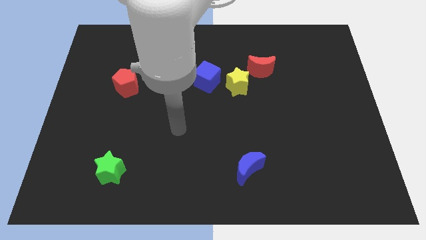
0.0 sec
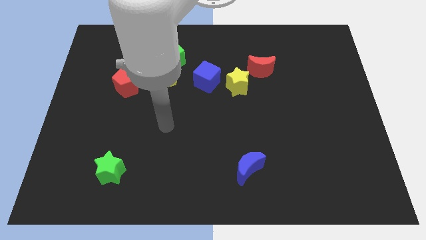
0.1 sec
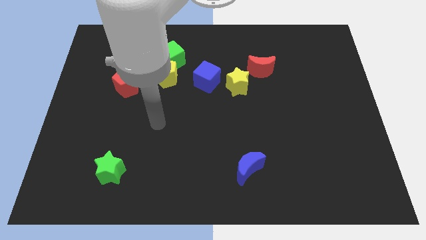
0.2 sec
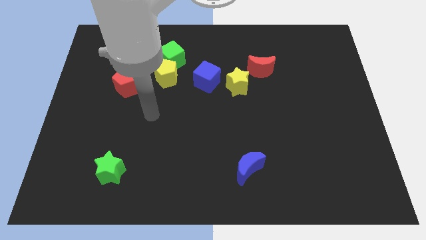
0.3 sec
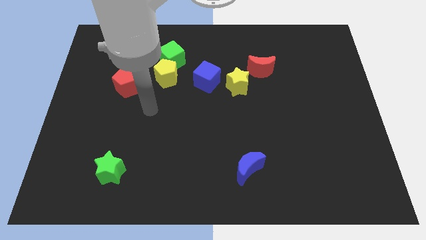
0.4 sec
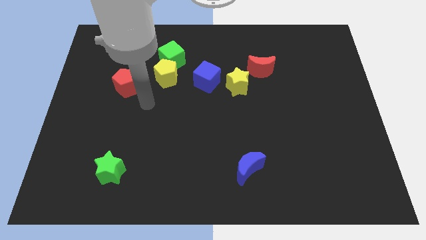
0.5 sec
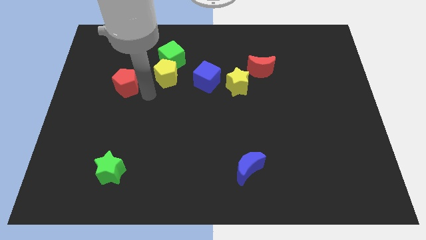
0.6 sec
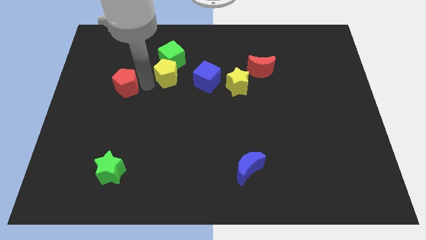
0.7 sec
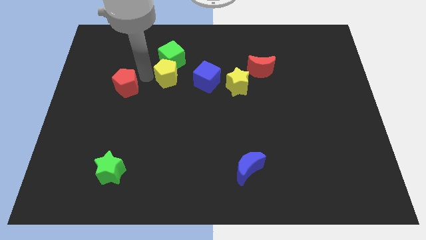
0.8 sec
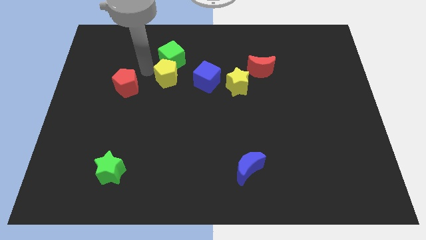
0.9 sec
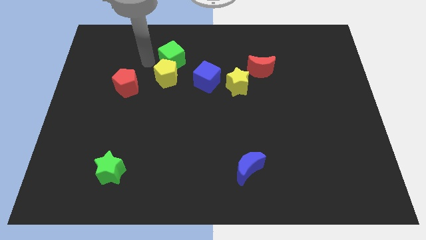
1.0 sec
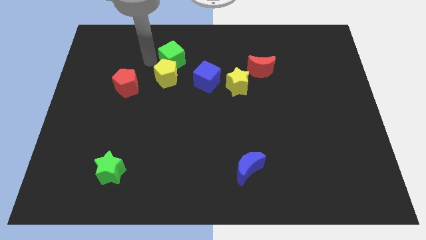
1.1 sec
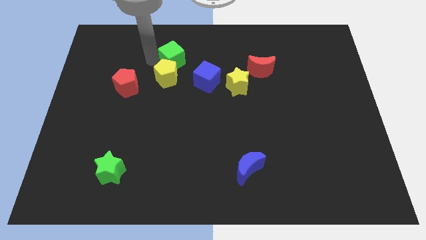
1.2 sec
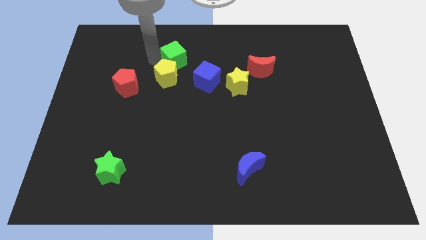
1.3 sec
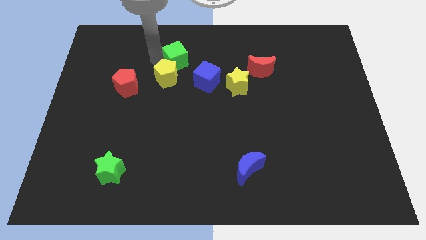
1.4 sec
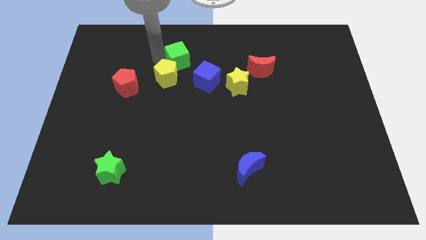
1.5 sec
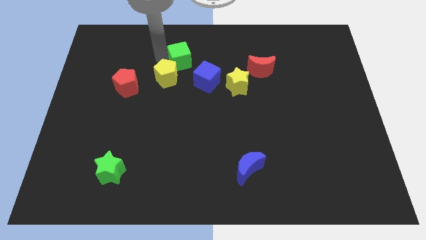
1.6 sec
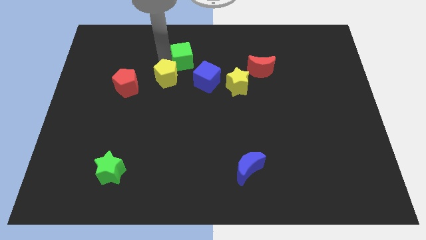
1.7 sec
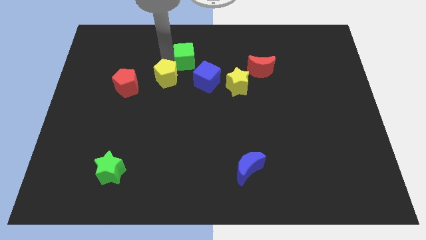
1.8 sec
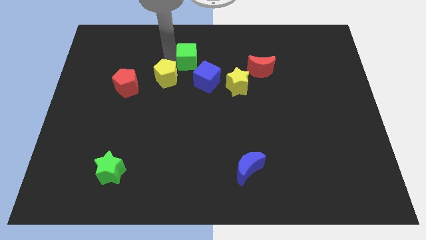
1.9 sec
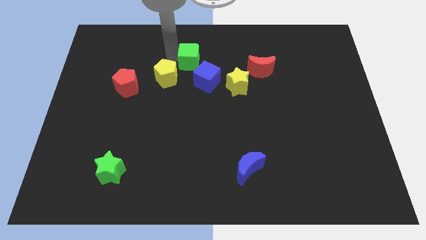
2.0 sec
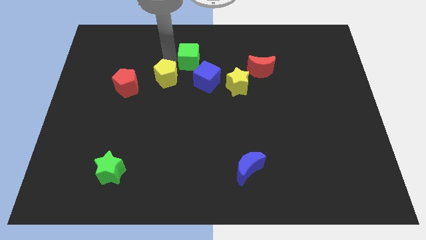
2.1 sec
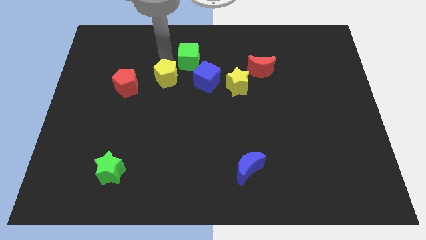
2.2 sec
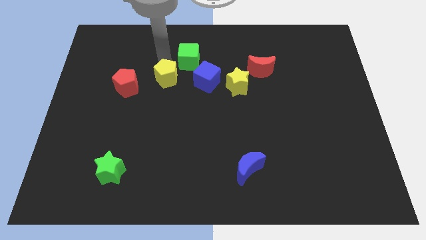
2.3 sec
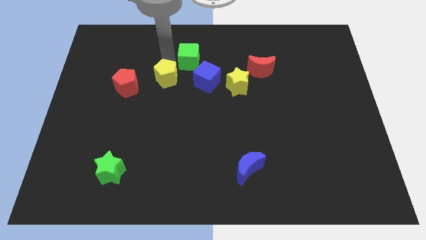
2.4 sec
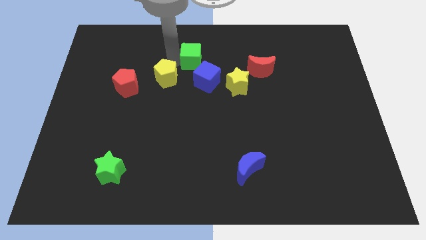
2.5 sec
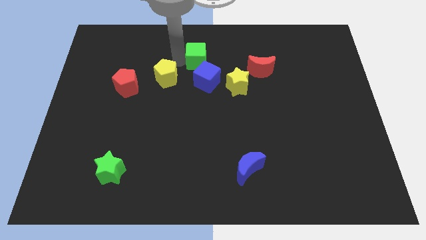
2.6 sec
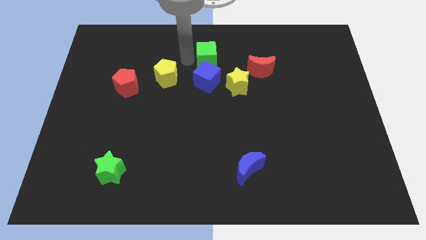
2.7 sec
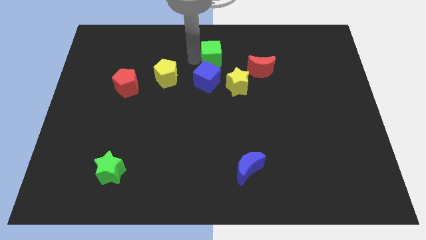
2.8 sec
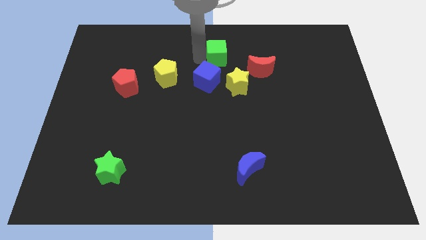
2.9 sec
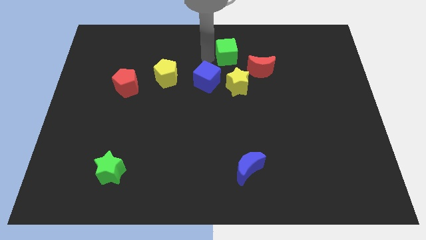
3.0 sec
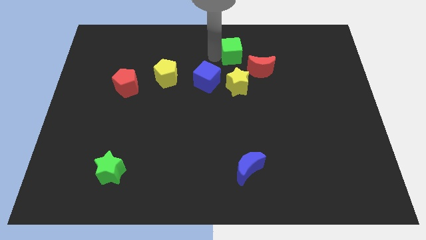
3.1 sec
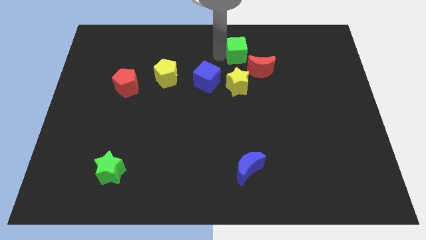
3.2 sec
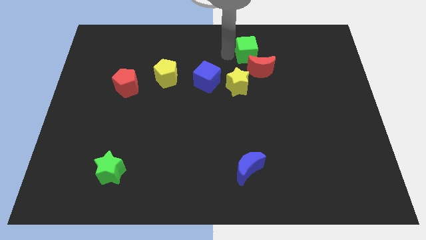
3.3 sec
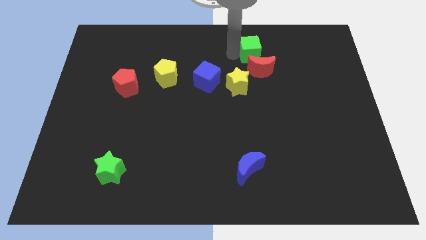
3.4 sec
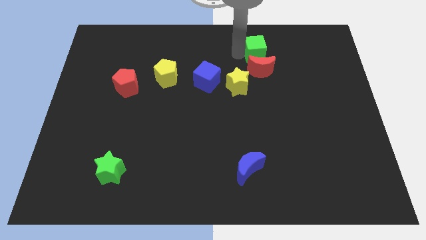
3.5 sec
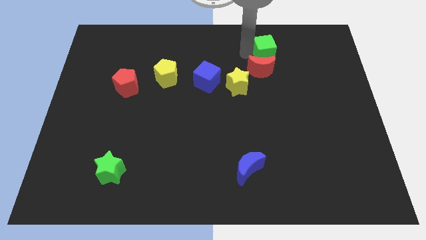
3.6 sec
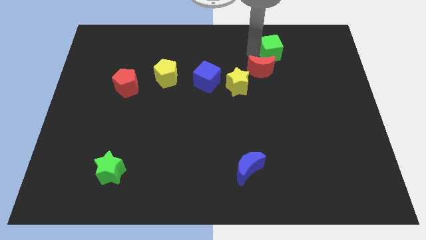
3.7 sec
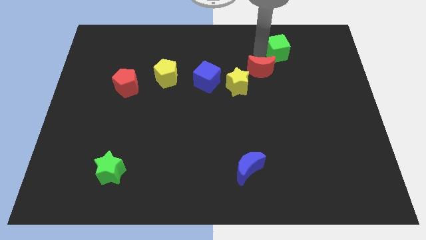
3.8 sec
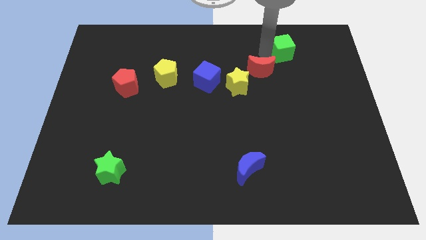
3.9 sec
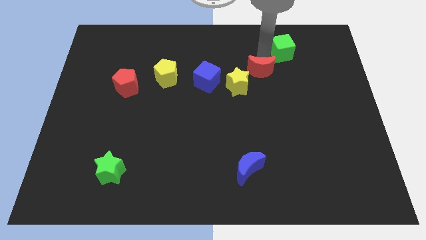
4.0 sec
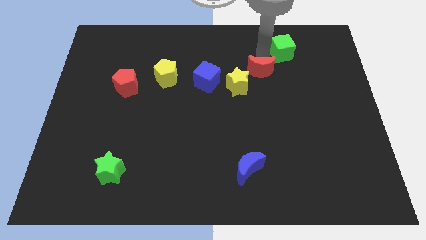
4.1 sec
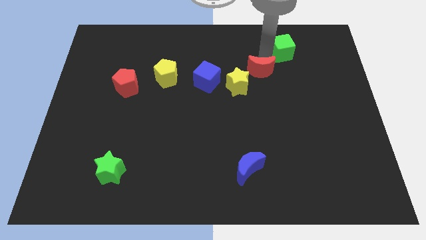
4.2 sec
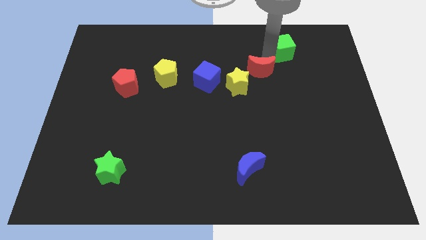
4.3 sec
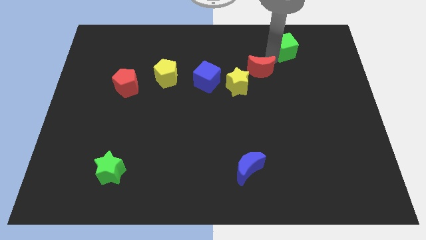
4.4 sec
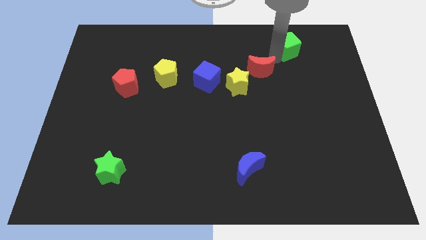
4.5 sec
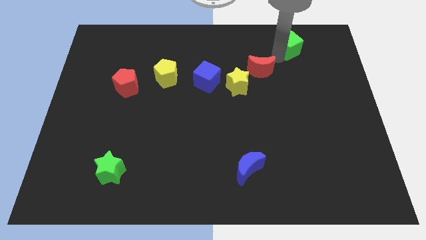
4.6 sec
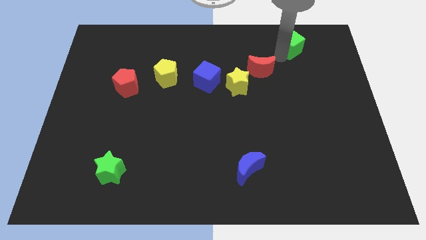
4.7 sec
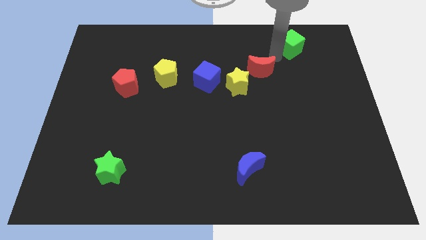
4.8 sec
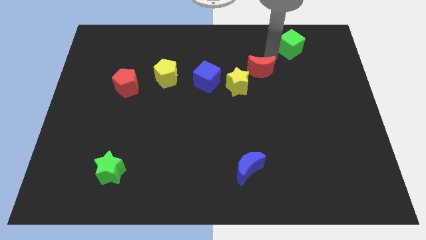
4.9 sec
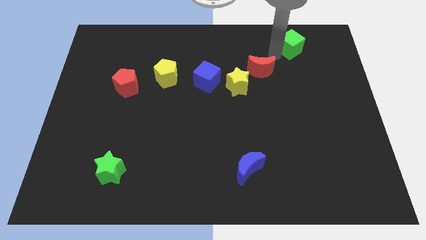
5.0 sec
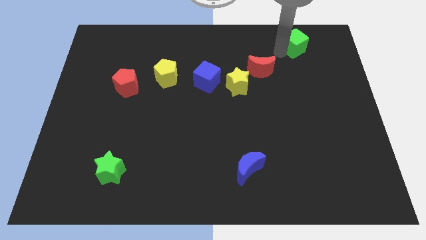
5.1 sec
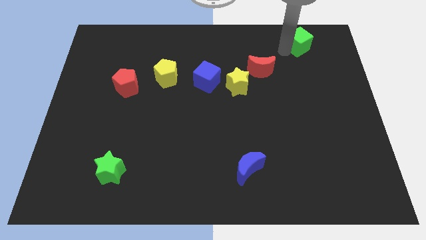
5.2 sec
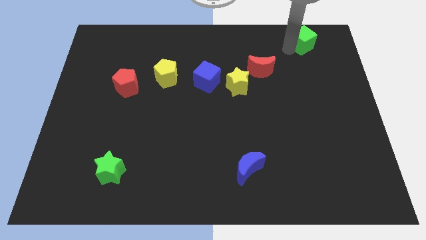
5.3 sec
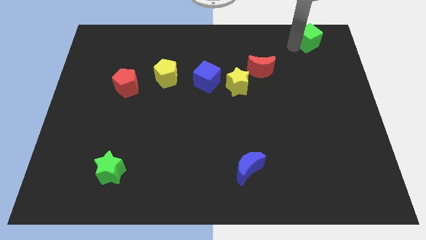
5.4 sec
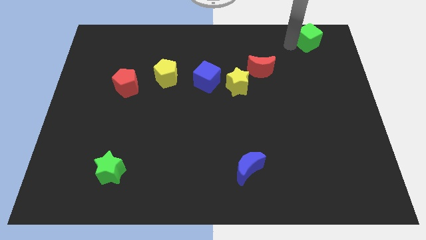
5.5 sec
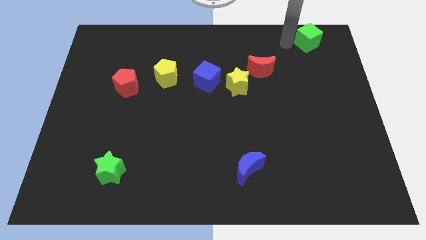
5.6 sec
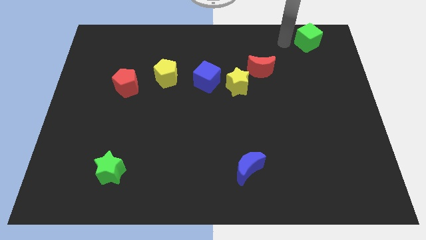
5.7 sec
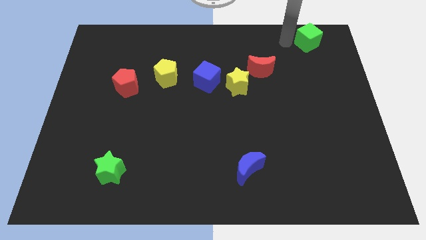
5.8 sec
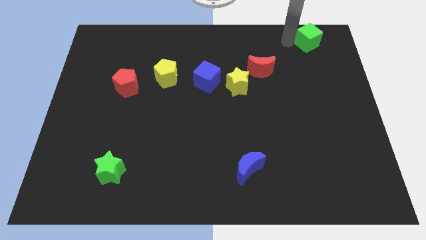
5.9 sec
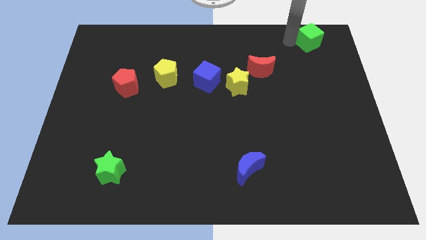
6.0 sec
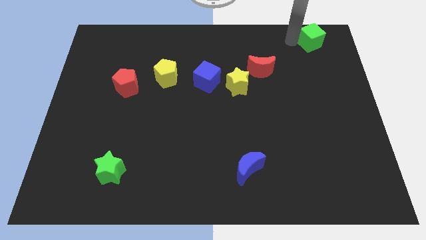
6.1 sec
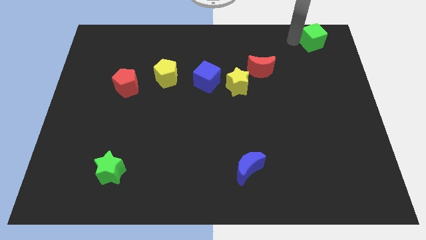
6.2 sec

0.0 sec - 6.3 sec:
push the green cube to the top right
